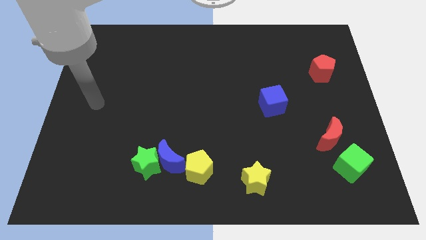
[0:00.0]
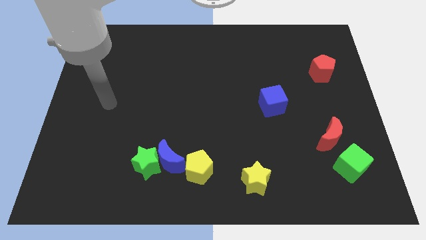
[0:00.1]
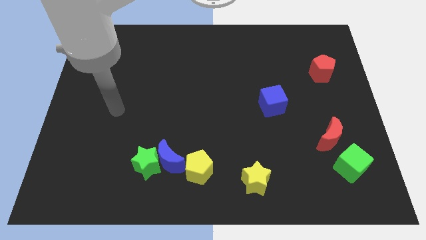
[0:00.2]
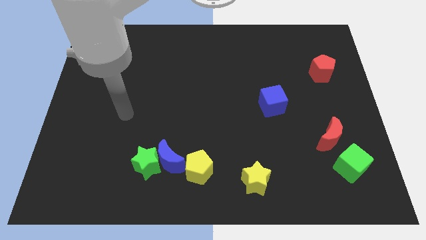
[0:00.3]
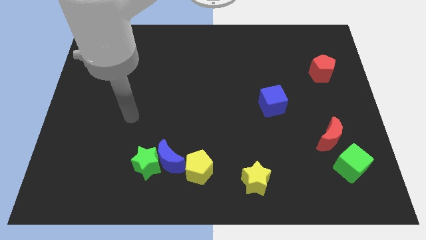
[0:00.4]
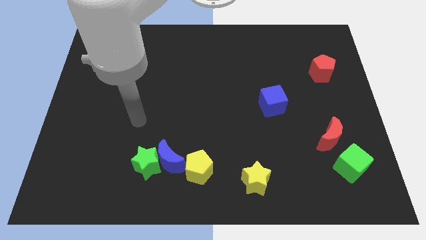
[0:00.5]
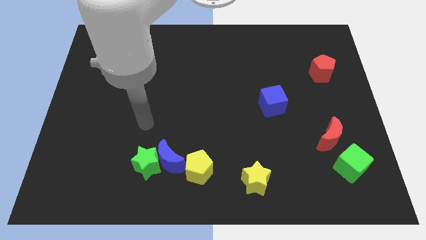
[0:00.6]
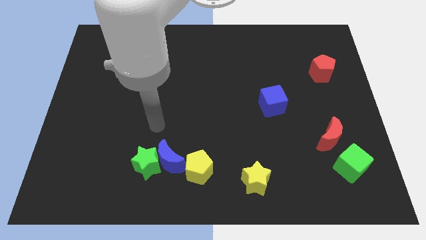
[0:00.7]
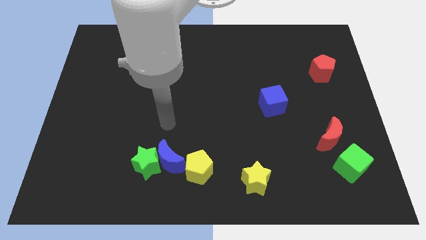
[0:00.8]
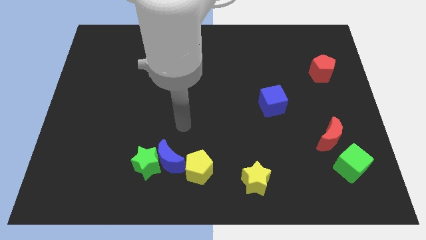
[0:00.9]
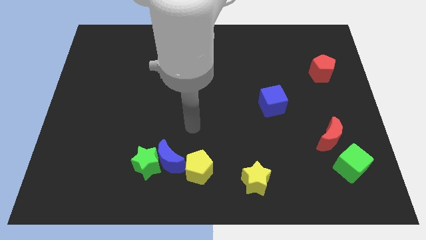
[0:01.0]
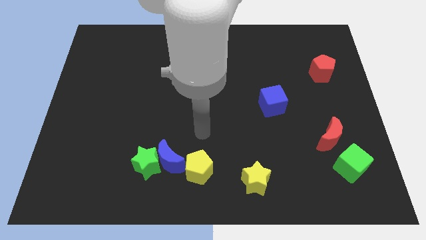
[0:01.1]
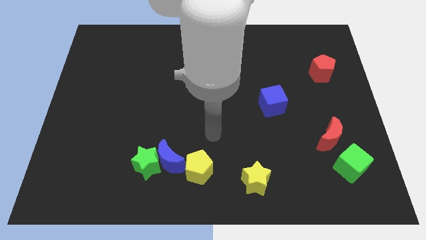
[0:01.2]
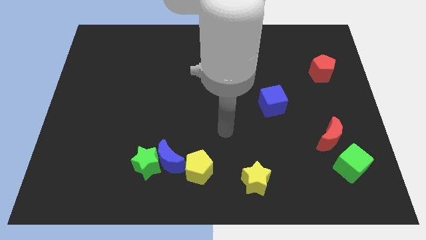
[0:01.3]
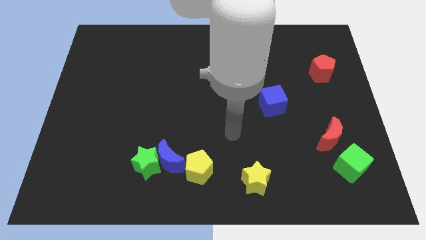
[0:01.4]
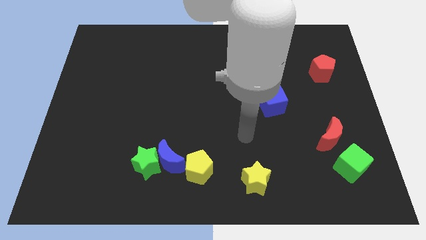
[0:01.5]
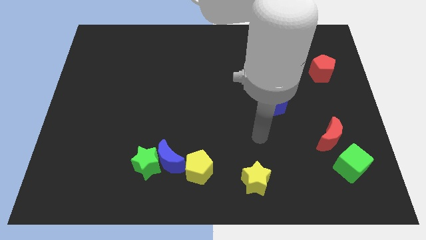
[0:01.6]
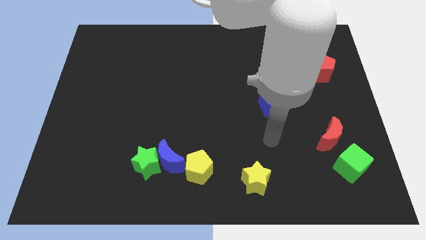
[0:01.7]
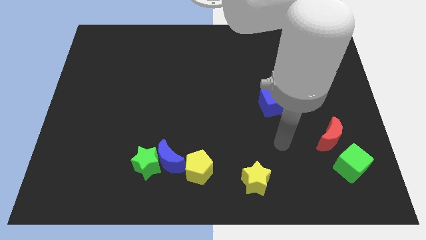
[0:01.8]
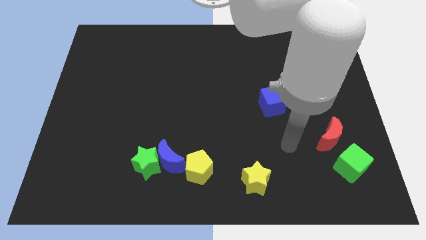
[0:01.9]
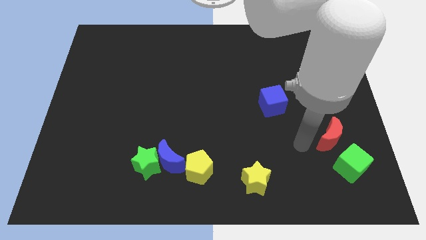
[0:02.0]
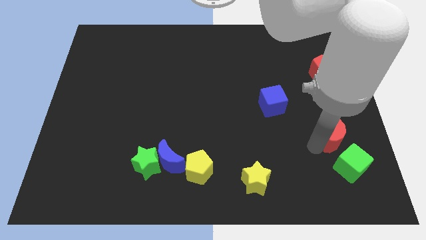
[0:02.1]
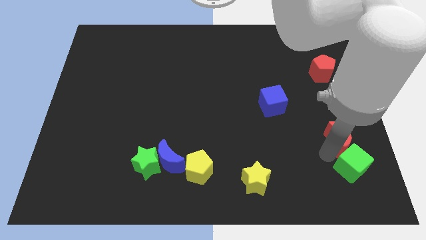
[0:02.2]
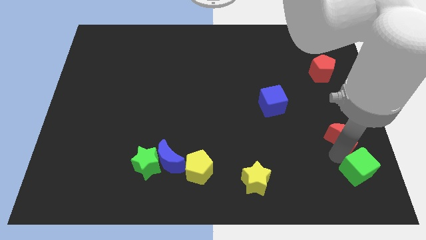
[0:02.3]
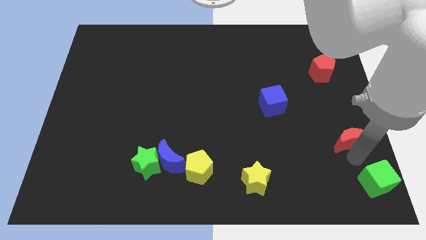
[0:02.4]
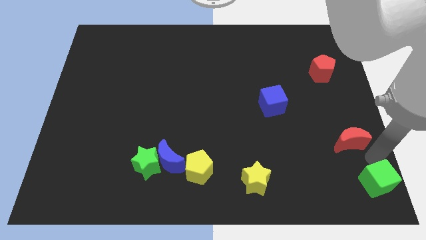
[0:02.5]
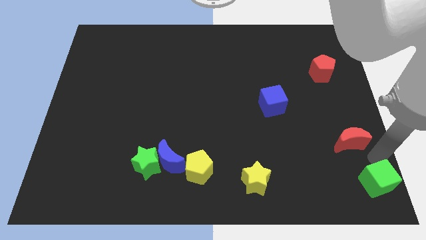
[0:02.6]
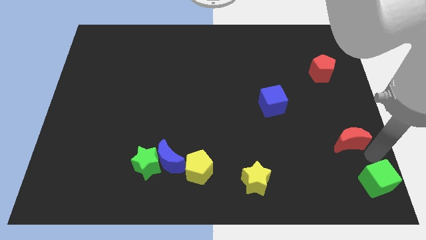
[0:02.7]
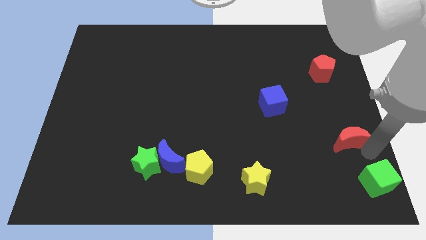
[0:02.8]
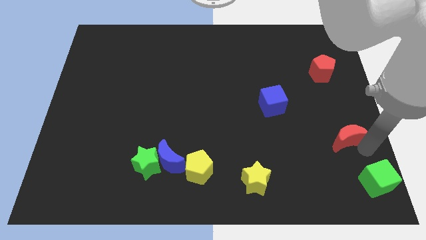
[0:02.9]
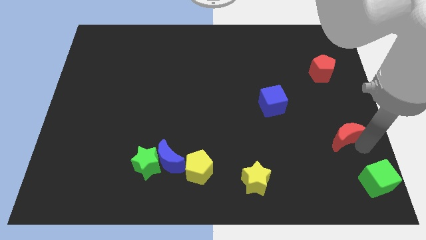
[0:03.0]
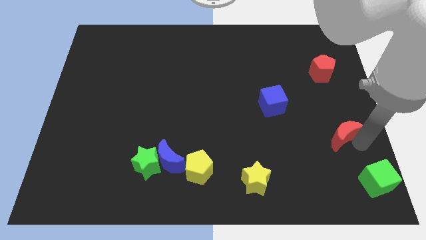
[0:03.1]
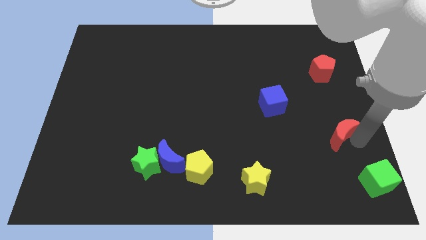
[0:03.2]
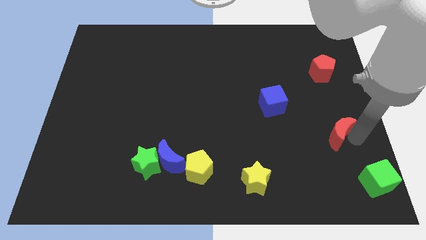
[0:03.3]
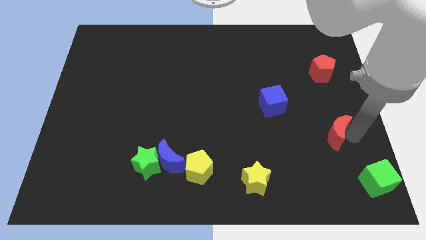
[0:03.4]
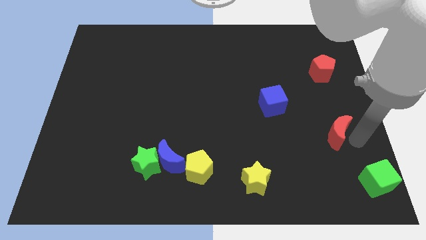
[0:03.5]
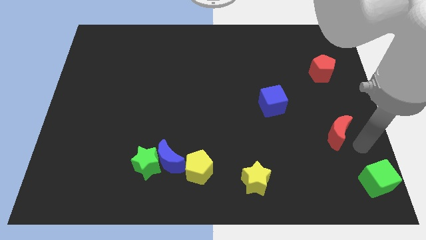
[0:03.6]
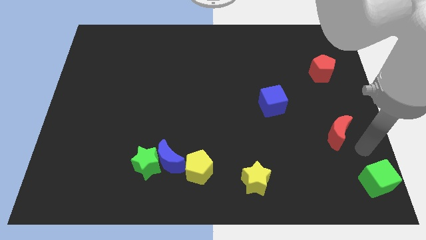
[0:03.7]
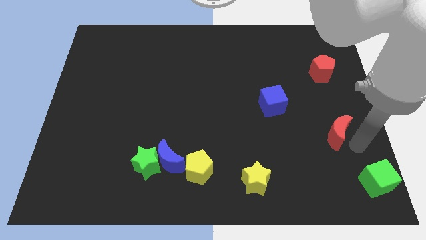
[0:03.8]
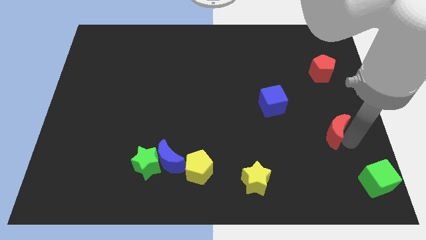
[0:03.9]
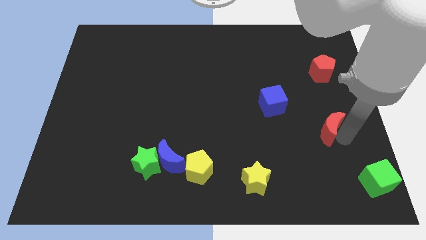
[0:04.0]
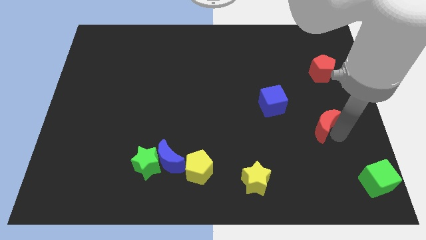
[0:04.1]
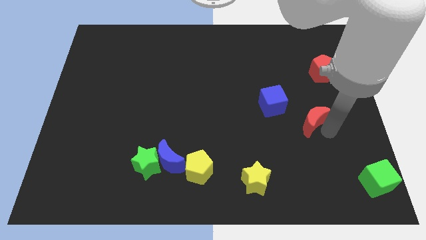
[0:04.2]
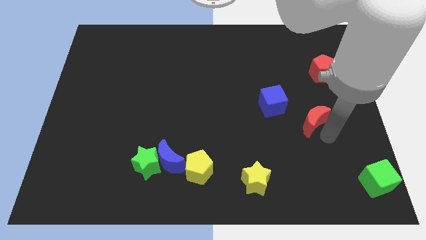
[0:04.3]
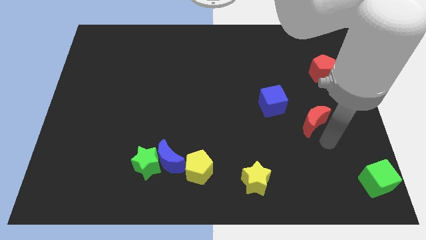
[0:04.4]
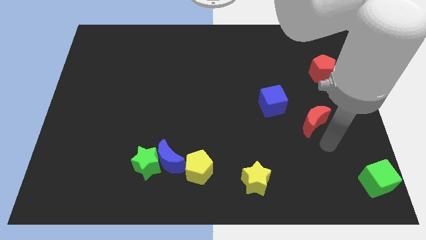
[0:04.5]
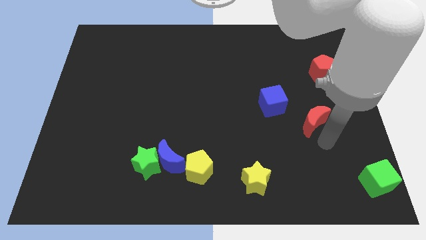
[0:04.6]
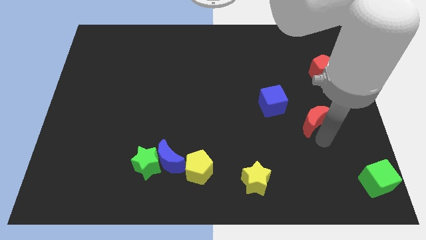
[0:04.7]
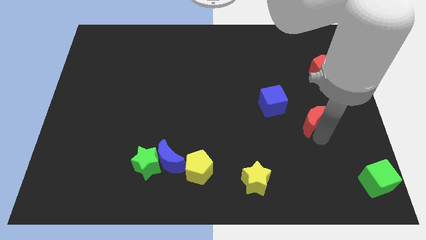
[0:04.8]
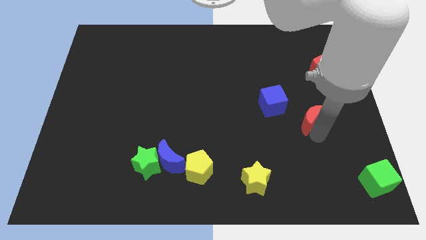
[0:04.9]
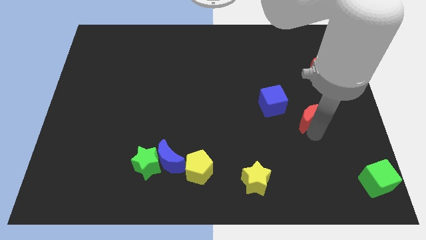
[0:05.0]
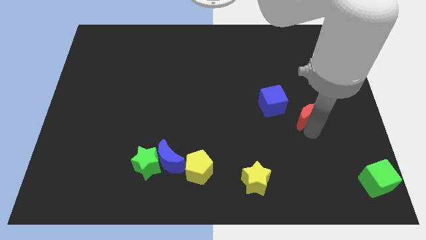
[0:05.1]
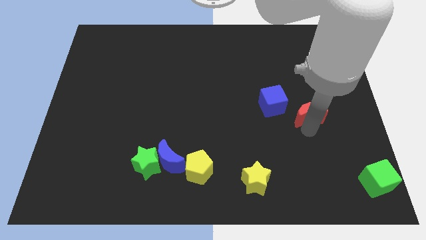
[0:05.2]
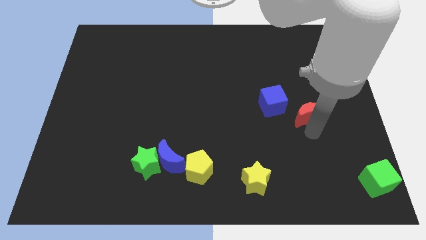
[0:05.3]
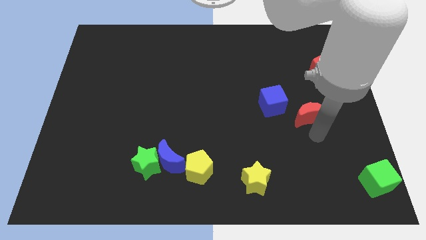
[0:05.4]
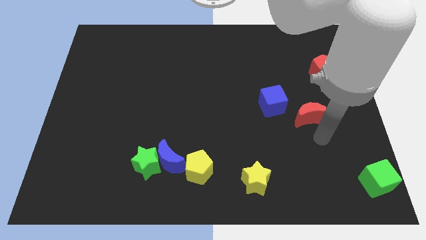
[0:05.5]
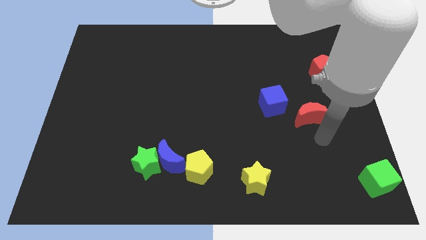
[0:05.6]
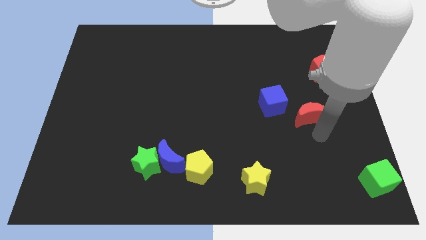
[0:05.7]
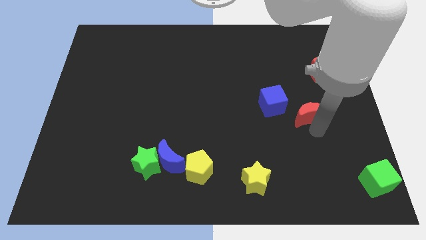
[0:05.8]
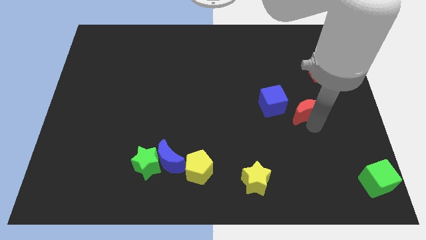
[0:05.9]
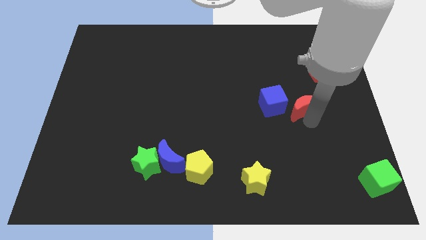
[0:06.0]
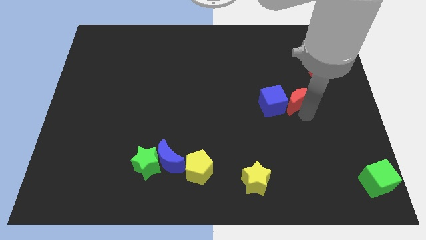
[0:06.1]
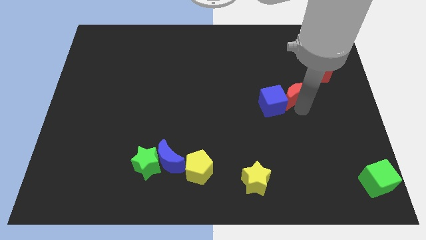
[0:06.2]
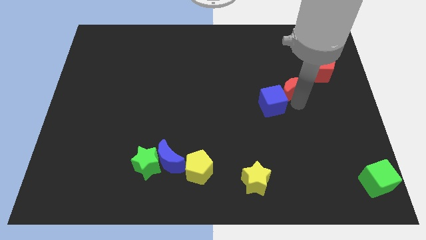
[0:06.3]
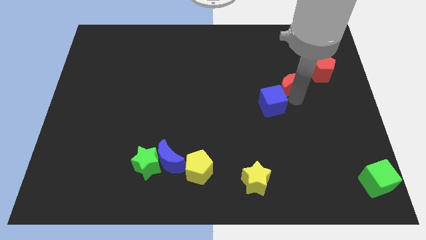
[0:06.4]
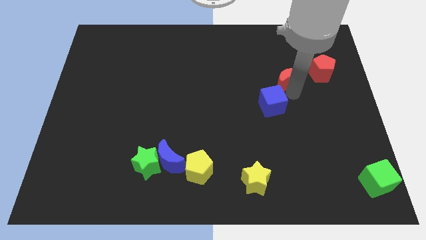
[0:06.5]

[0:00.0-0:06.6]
push the red moon to the left of the red pentagon
